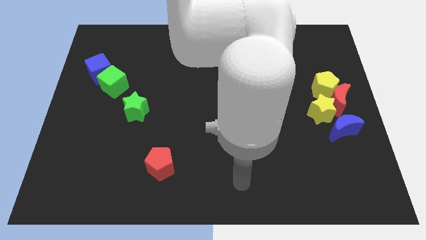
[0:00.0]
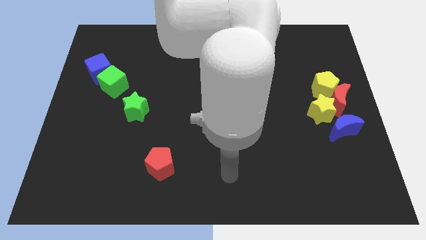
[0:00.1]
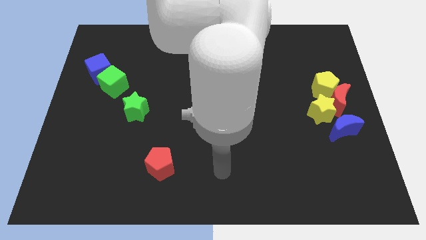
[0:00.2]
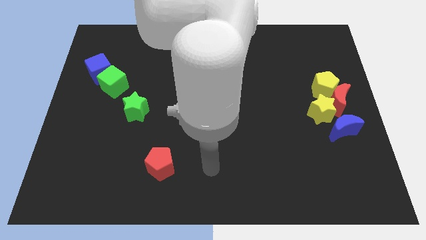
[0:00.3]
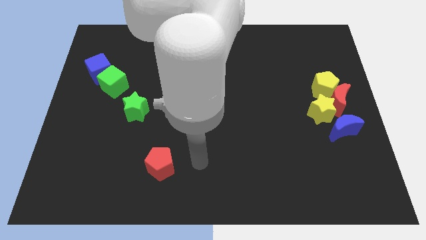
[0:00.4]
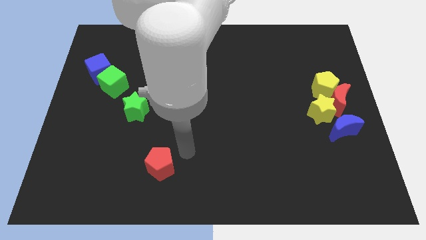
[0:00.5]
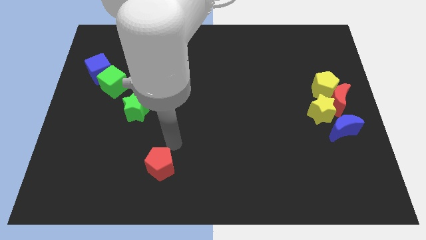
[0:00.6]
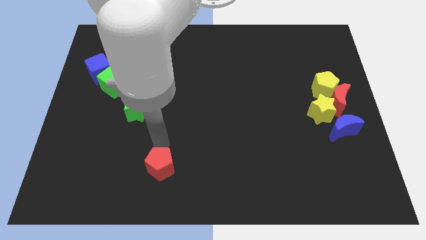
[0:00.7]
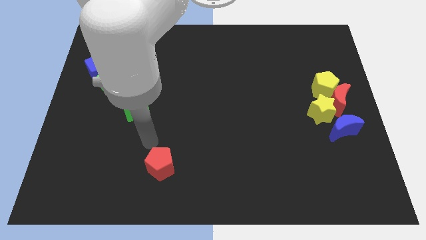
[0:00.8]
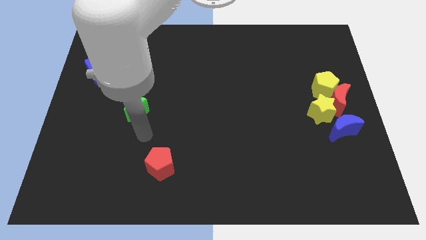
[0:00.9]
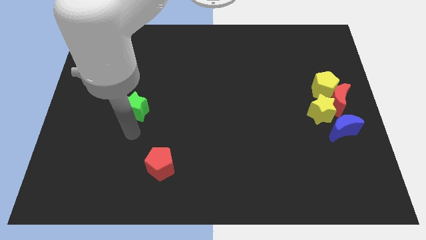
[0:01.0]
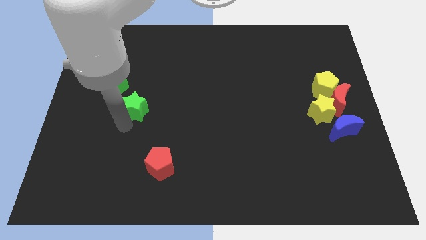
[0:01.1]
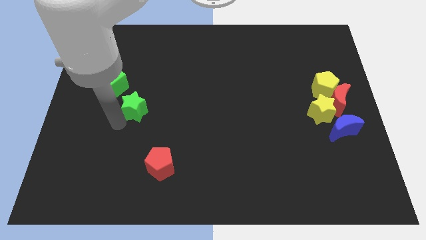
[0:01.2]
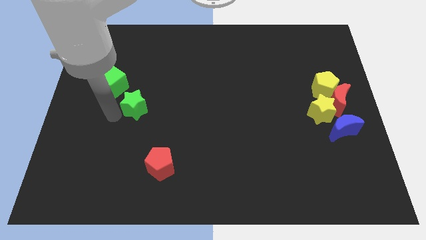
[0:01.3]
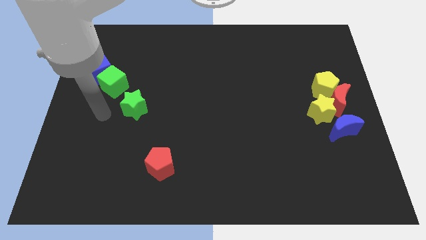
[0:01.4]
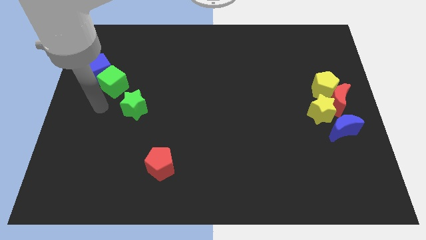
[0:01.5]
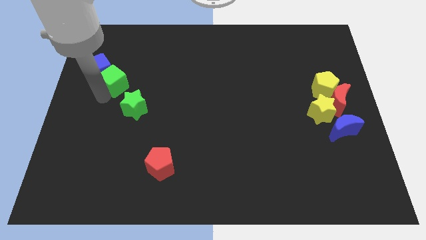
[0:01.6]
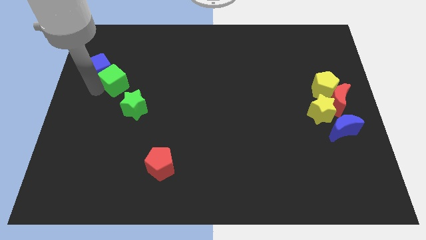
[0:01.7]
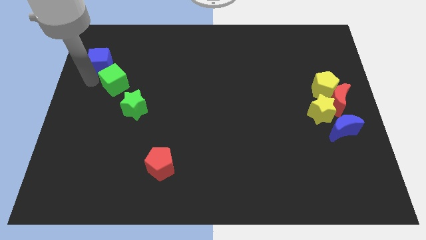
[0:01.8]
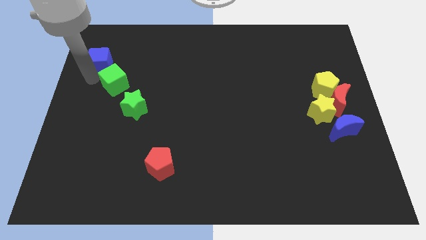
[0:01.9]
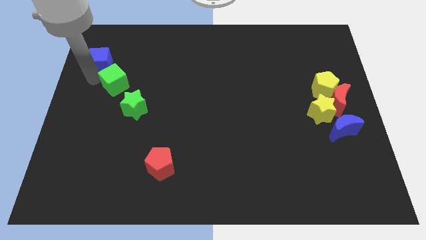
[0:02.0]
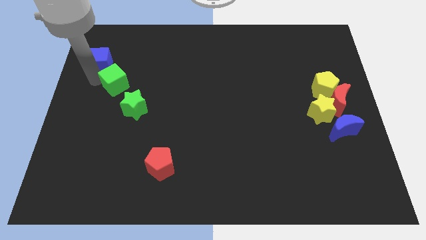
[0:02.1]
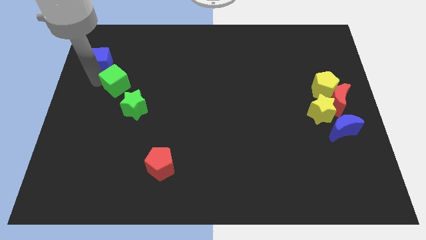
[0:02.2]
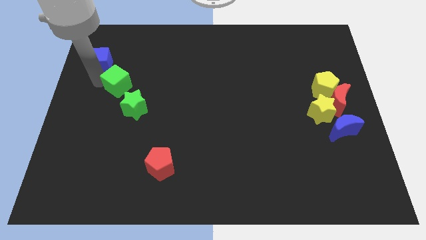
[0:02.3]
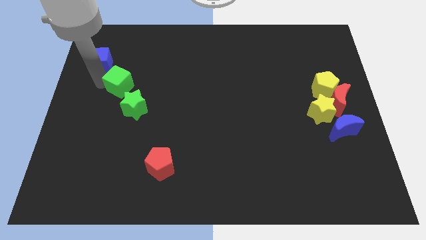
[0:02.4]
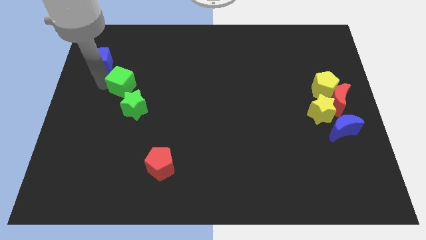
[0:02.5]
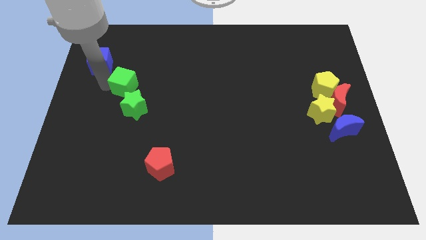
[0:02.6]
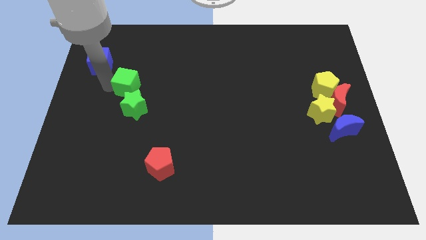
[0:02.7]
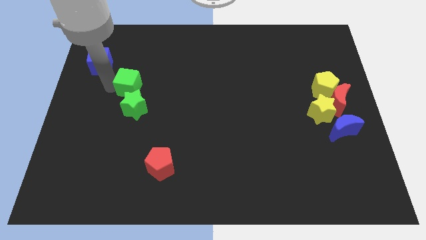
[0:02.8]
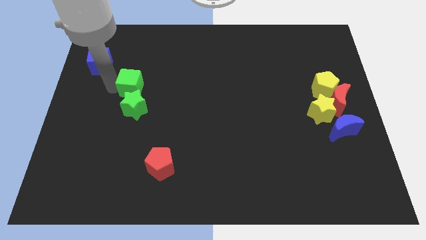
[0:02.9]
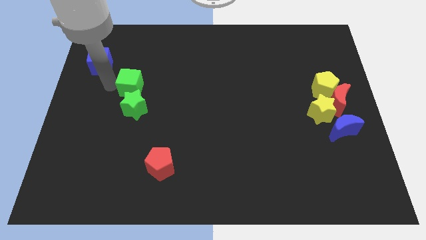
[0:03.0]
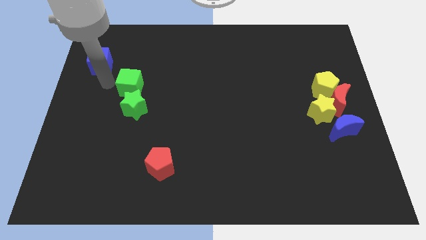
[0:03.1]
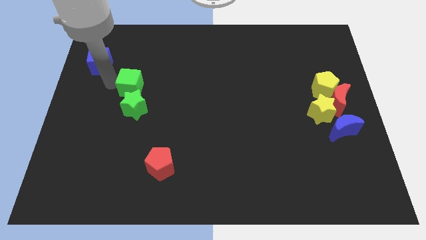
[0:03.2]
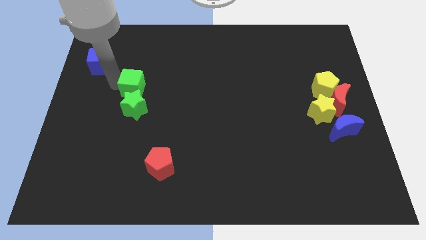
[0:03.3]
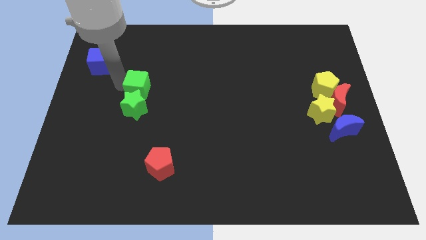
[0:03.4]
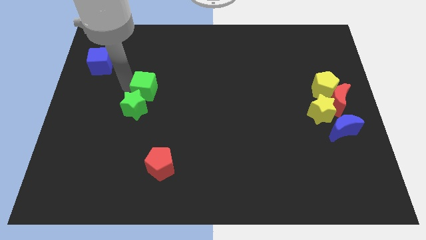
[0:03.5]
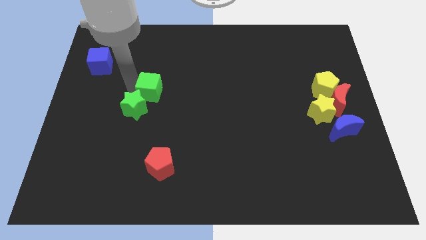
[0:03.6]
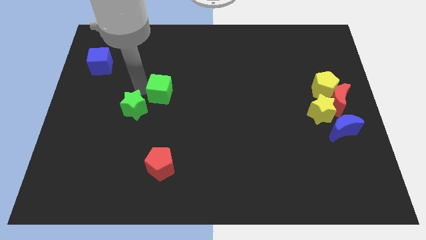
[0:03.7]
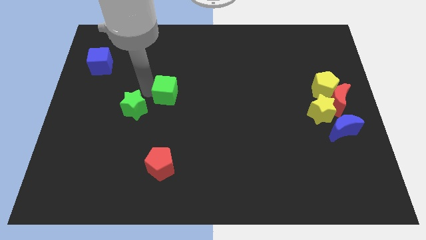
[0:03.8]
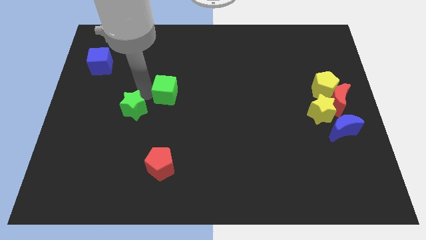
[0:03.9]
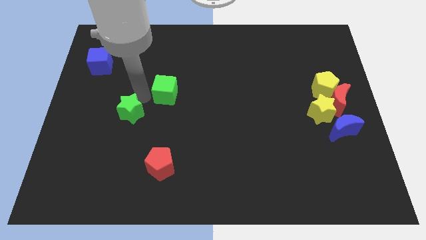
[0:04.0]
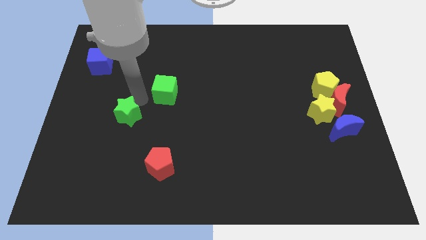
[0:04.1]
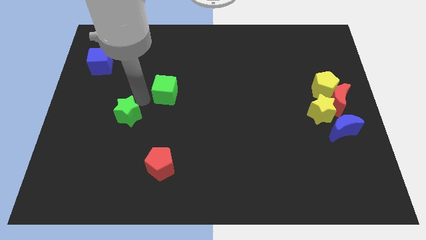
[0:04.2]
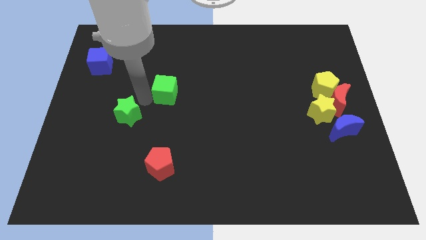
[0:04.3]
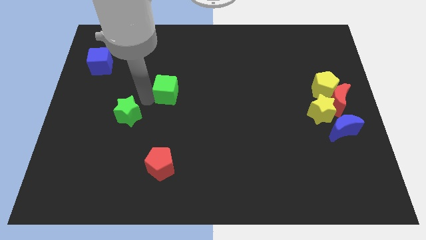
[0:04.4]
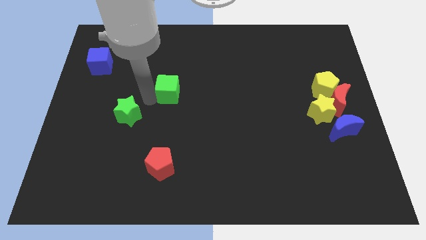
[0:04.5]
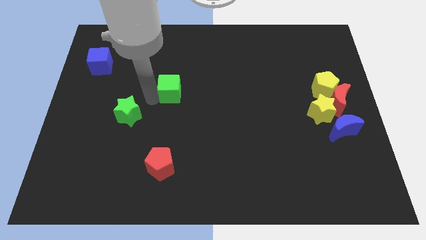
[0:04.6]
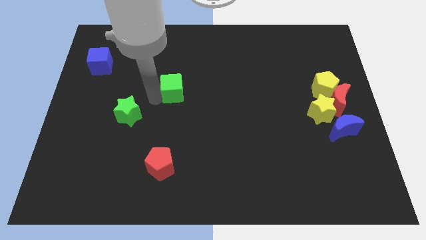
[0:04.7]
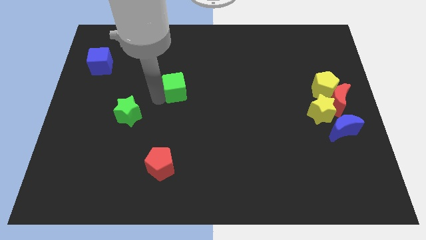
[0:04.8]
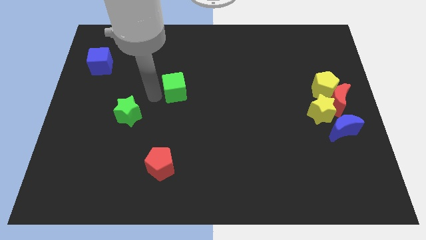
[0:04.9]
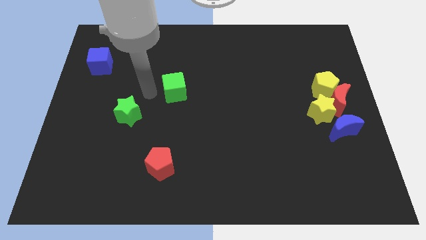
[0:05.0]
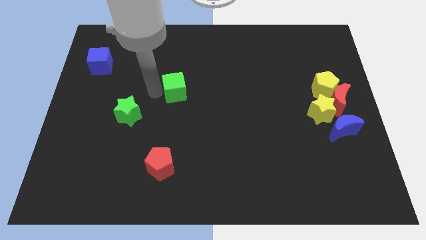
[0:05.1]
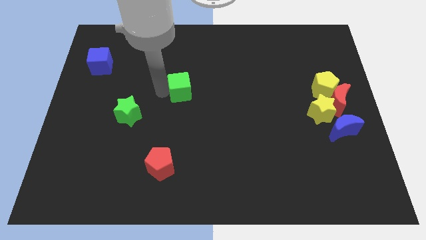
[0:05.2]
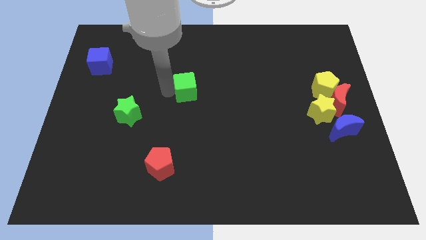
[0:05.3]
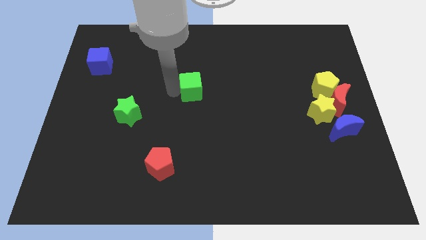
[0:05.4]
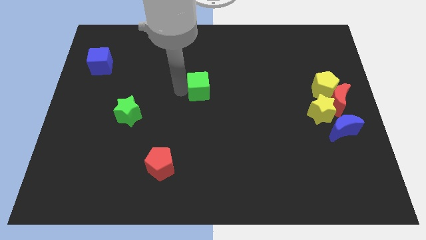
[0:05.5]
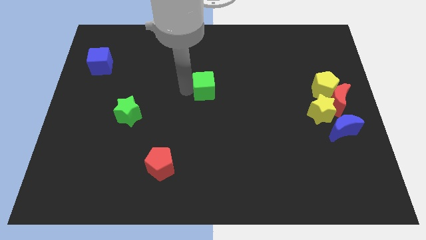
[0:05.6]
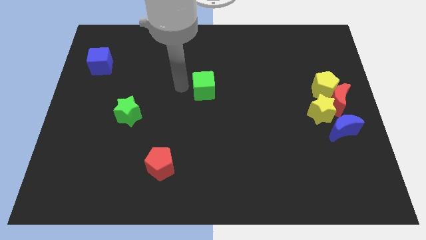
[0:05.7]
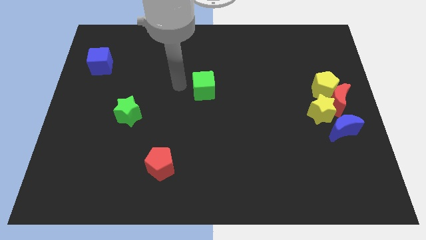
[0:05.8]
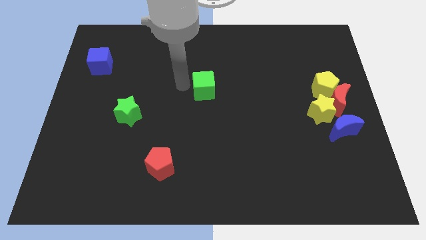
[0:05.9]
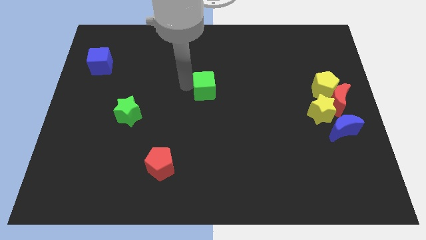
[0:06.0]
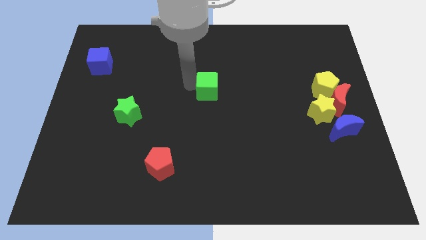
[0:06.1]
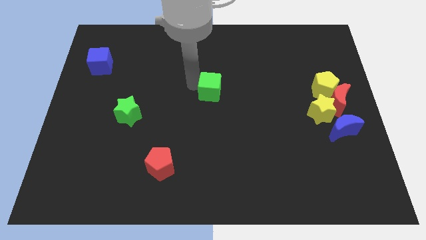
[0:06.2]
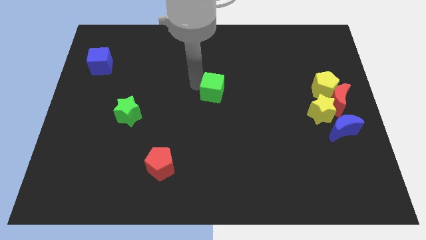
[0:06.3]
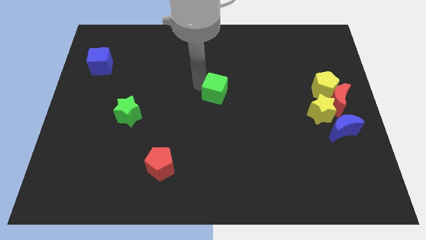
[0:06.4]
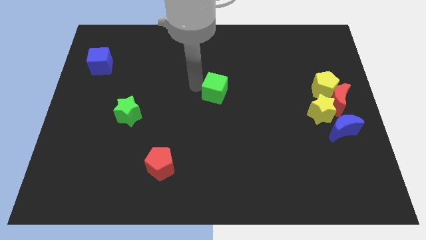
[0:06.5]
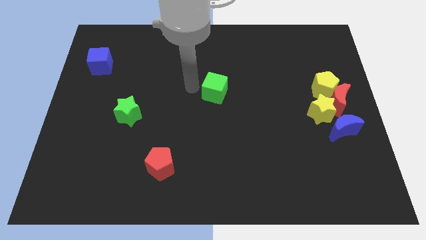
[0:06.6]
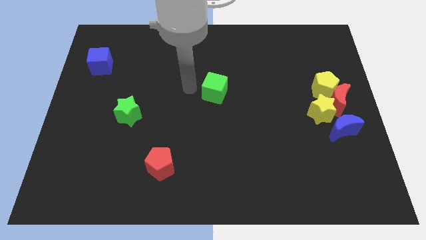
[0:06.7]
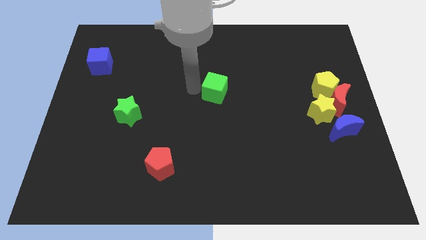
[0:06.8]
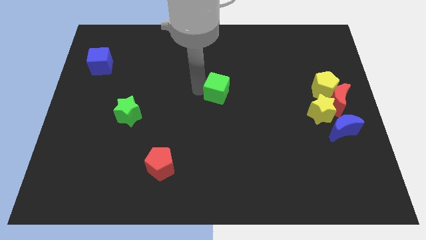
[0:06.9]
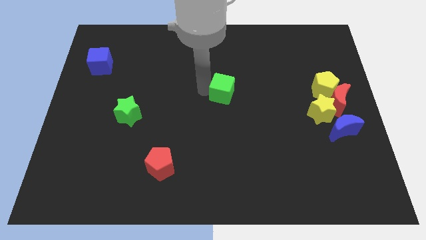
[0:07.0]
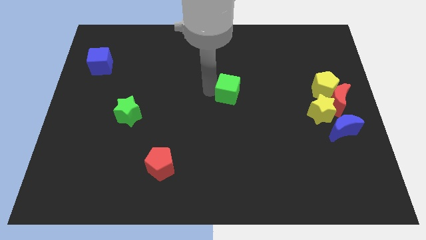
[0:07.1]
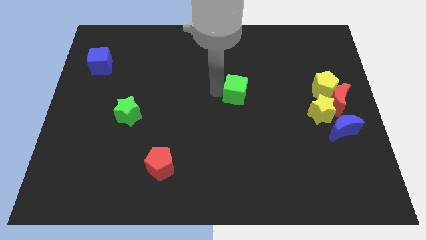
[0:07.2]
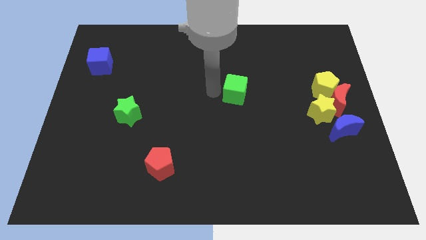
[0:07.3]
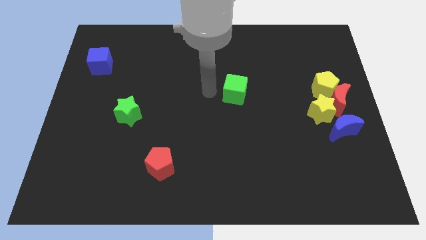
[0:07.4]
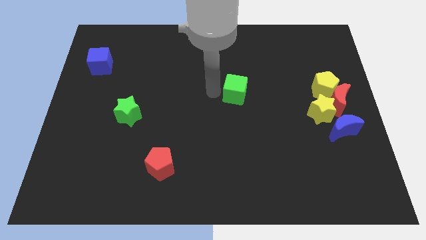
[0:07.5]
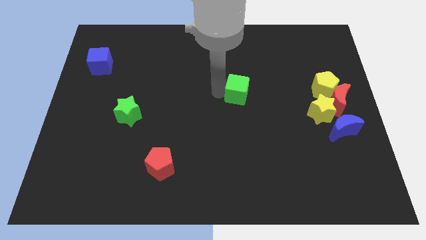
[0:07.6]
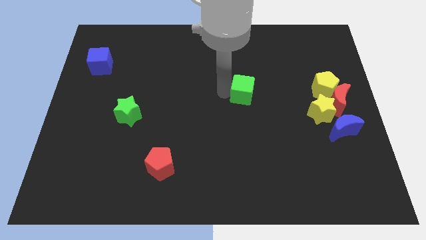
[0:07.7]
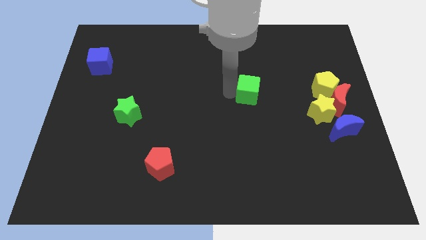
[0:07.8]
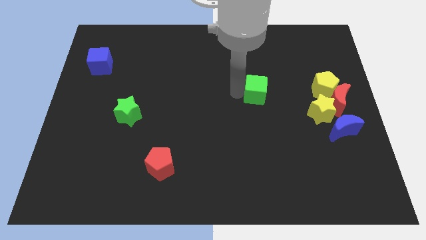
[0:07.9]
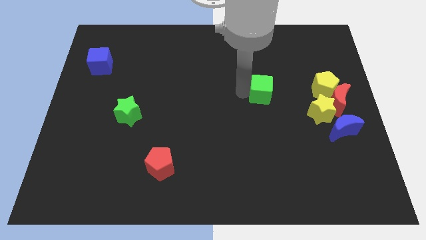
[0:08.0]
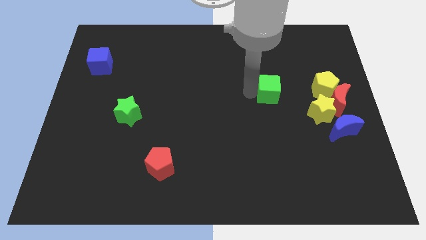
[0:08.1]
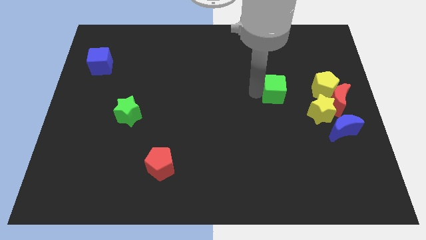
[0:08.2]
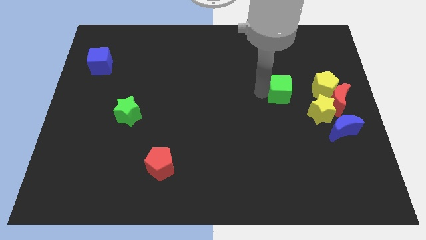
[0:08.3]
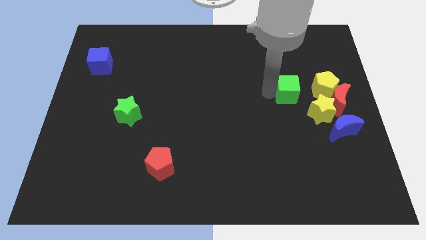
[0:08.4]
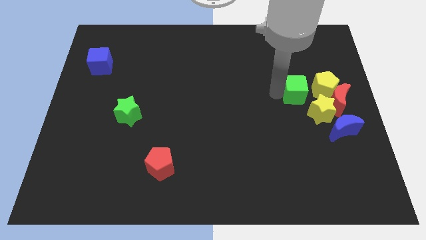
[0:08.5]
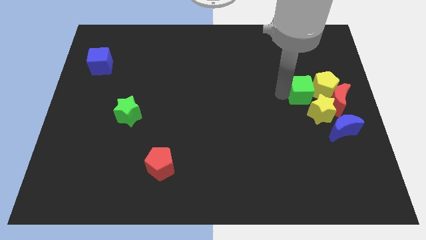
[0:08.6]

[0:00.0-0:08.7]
slide the green cube to the yellow pentagon
